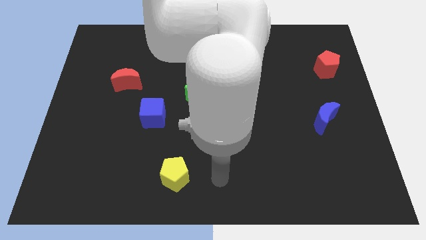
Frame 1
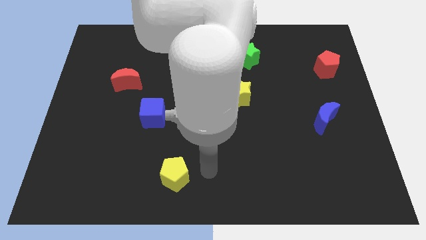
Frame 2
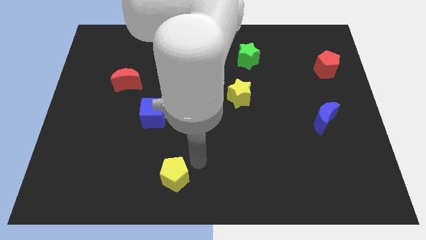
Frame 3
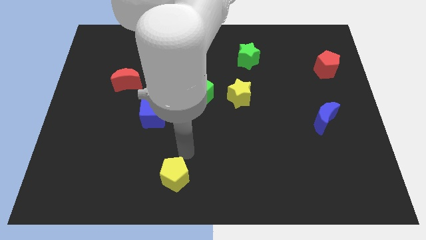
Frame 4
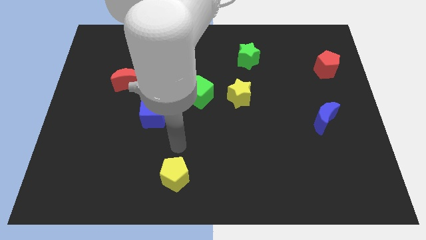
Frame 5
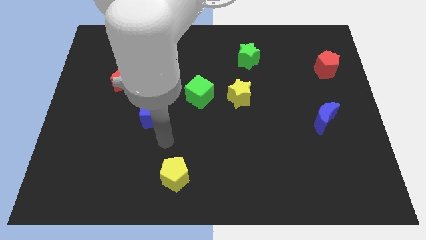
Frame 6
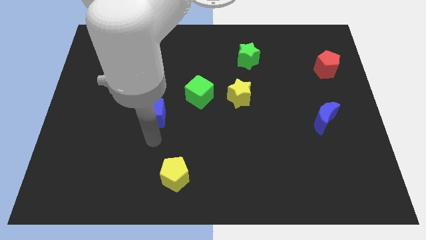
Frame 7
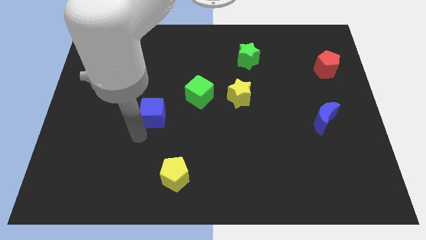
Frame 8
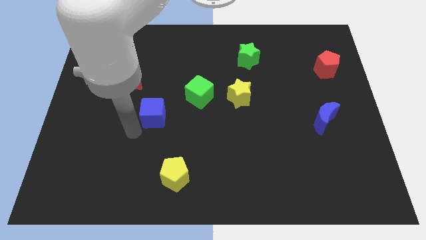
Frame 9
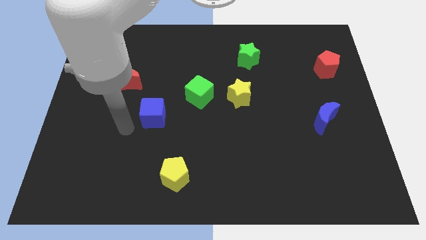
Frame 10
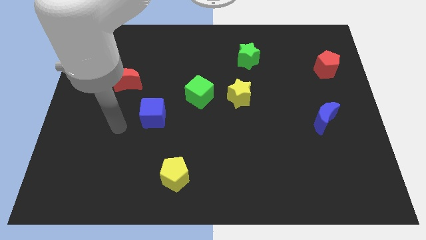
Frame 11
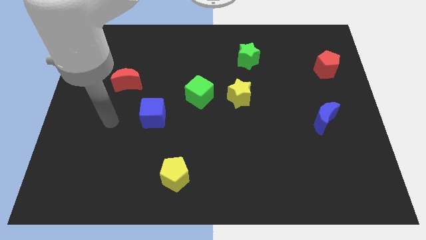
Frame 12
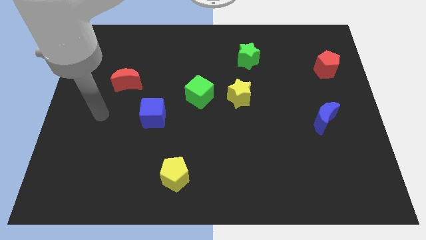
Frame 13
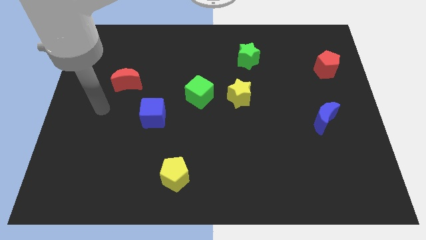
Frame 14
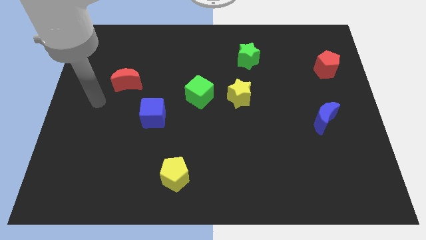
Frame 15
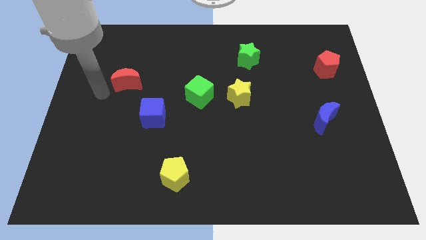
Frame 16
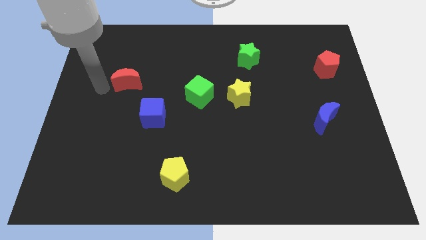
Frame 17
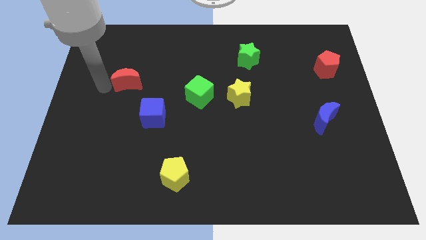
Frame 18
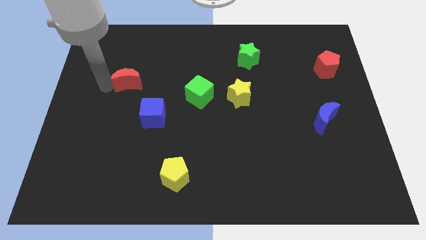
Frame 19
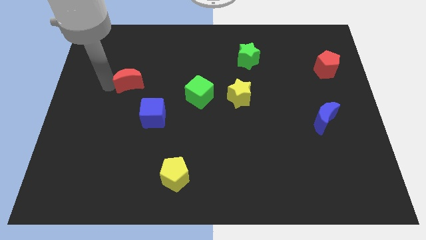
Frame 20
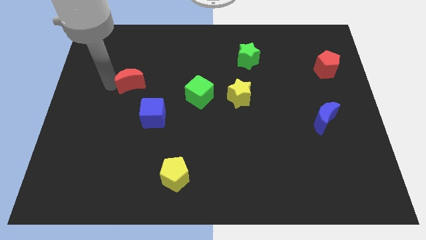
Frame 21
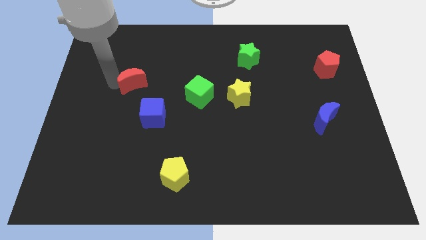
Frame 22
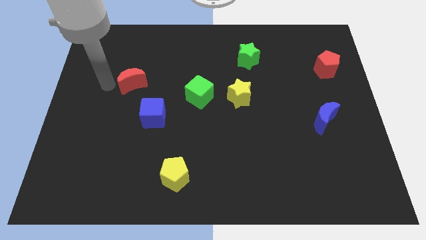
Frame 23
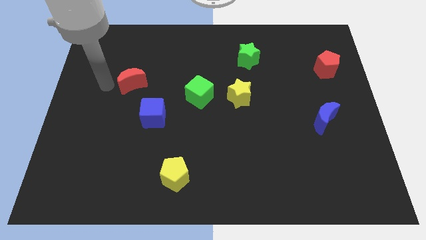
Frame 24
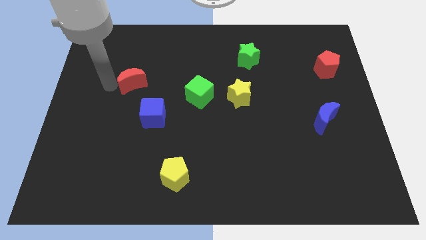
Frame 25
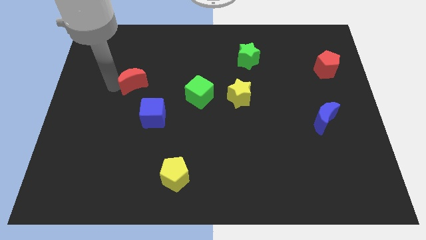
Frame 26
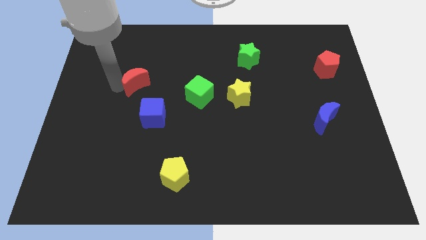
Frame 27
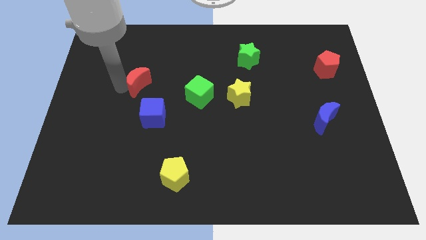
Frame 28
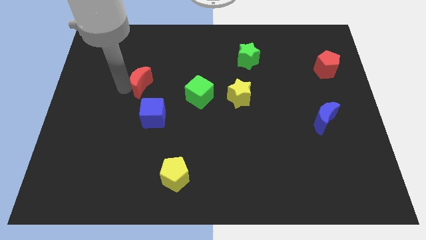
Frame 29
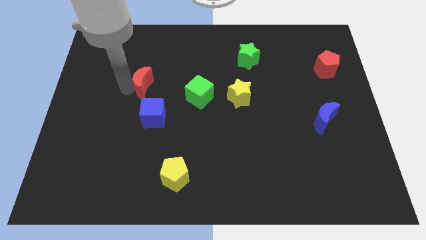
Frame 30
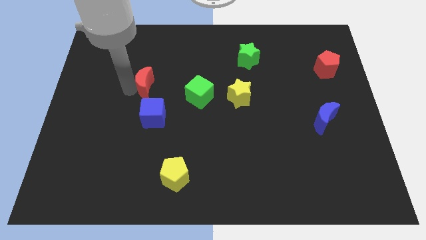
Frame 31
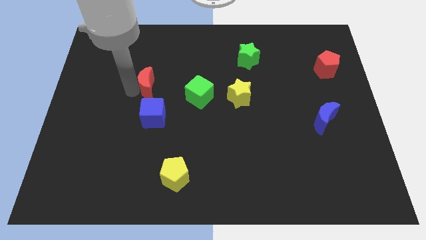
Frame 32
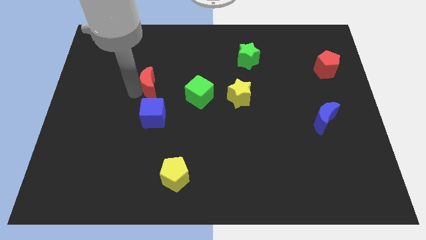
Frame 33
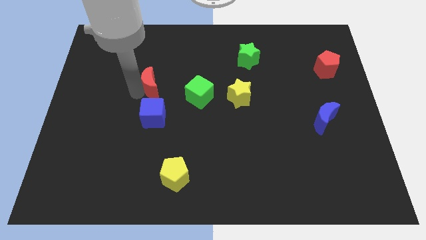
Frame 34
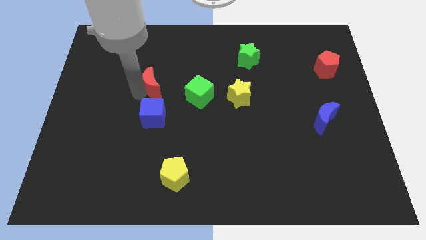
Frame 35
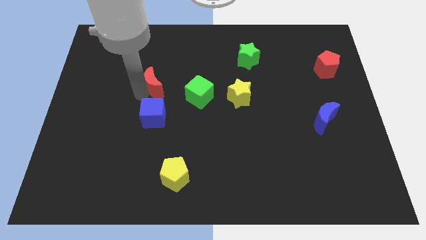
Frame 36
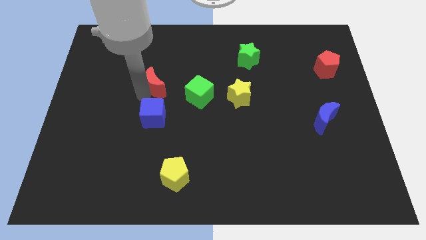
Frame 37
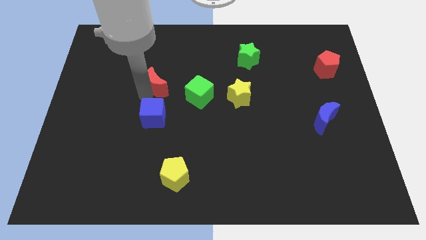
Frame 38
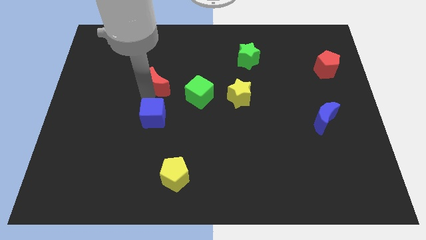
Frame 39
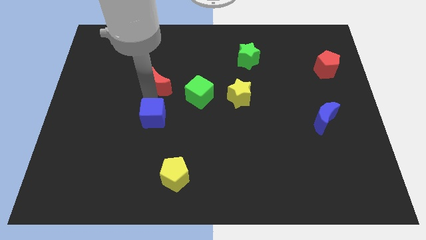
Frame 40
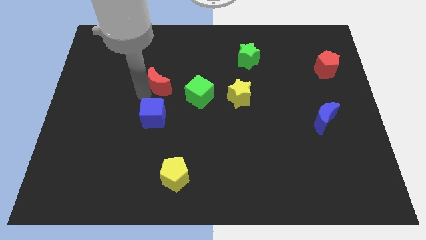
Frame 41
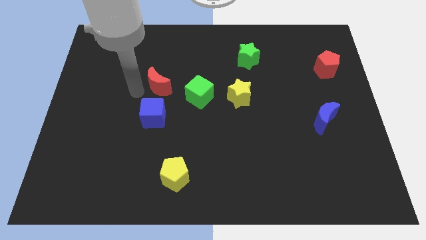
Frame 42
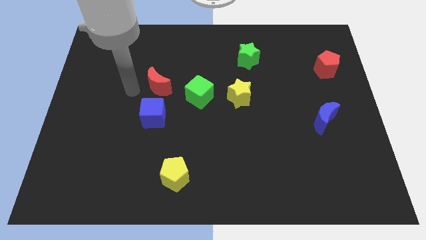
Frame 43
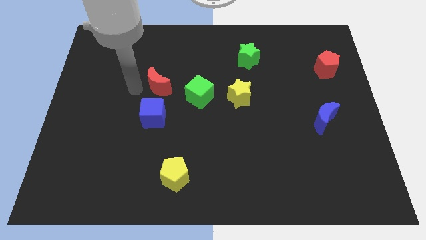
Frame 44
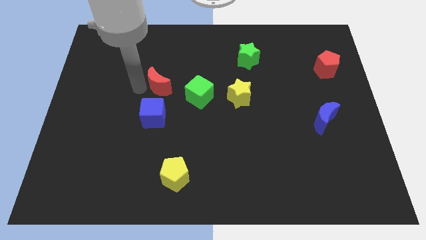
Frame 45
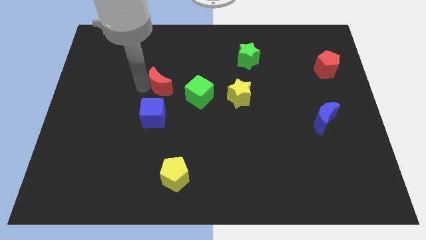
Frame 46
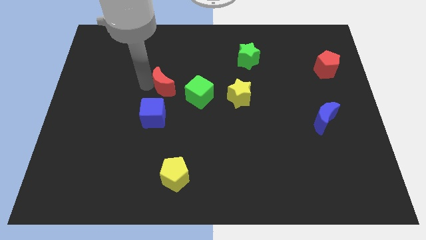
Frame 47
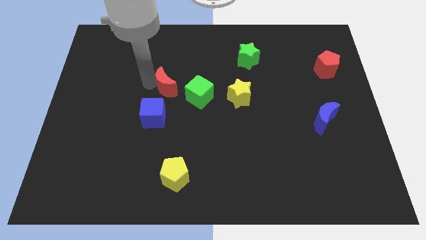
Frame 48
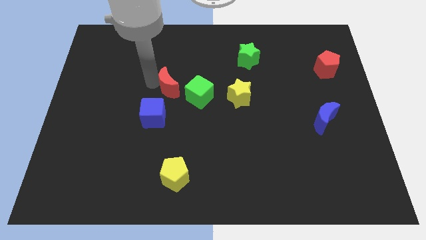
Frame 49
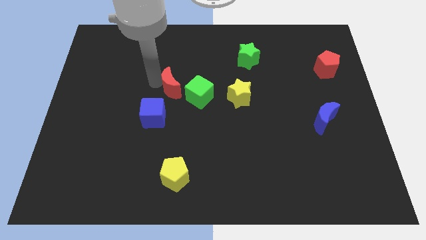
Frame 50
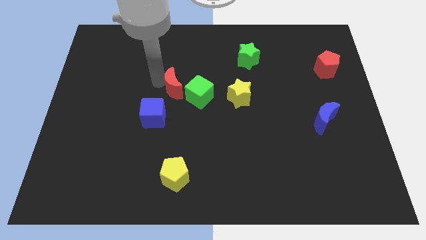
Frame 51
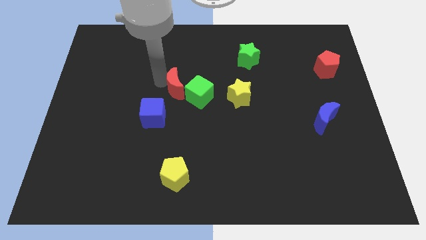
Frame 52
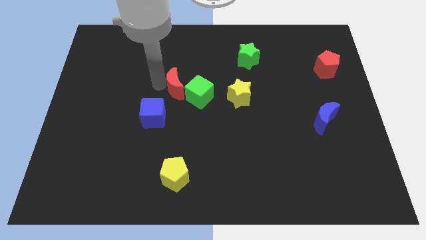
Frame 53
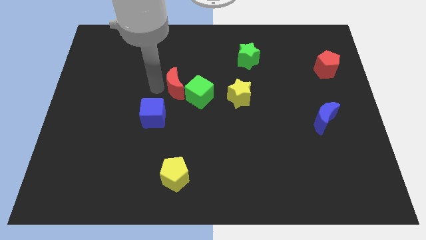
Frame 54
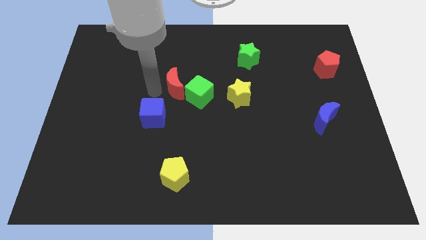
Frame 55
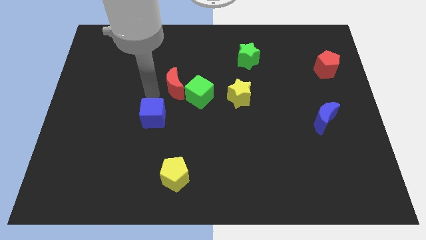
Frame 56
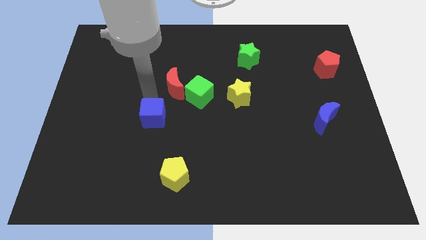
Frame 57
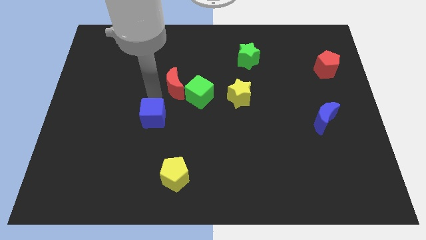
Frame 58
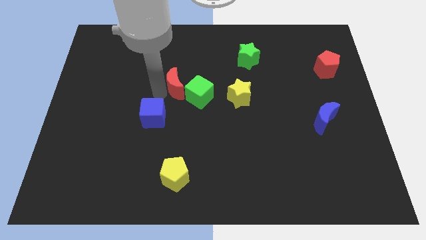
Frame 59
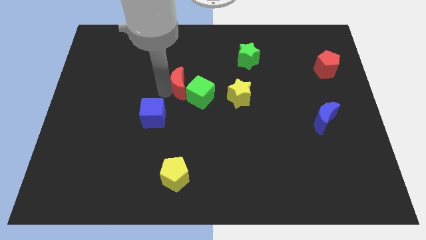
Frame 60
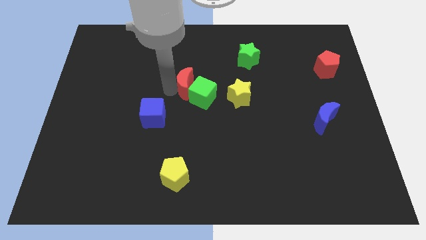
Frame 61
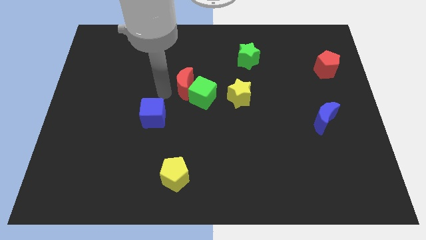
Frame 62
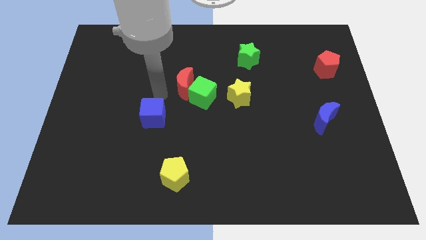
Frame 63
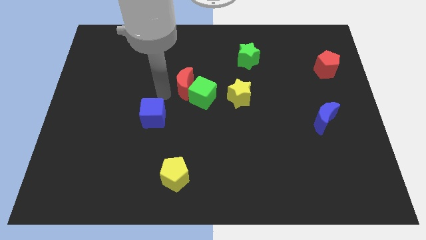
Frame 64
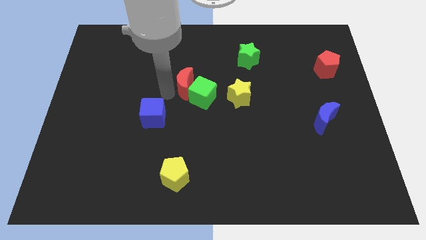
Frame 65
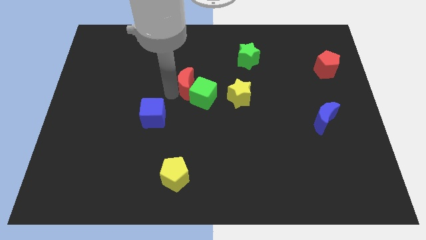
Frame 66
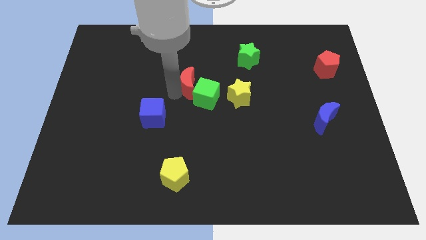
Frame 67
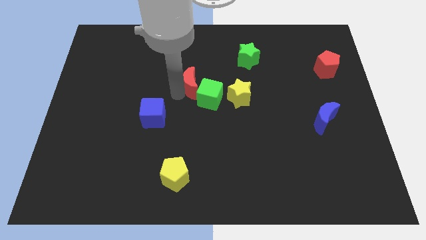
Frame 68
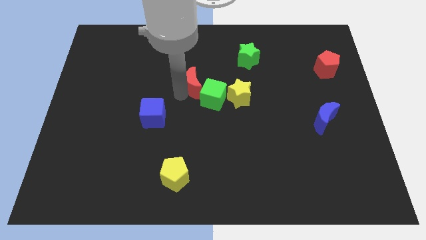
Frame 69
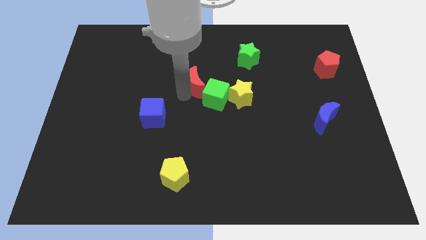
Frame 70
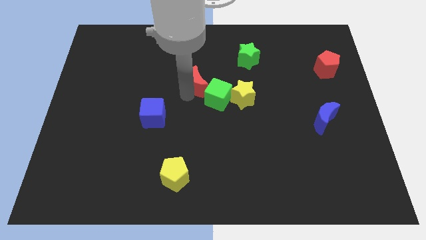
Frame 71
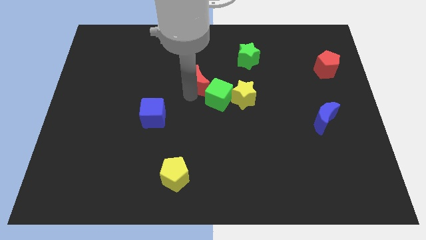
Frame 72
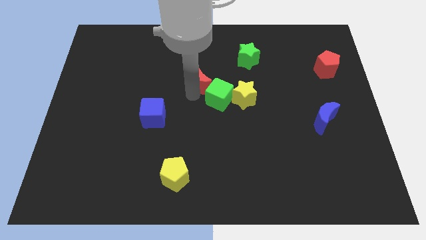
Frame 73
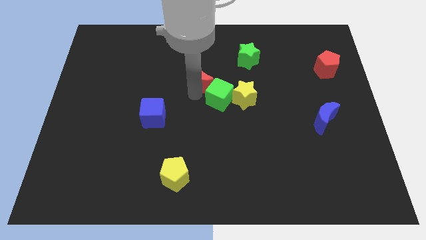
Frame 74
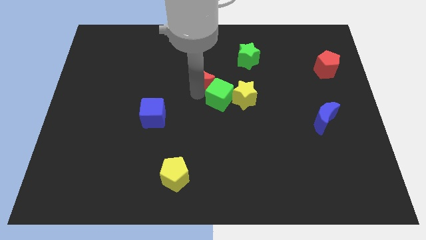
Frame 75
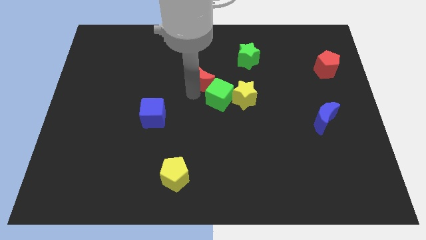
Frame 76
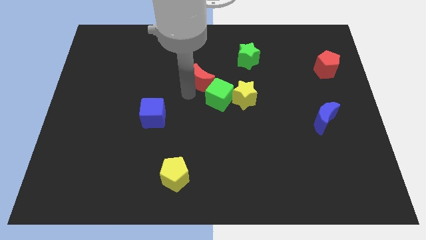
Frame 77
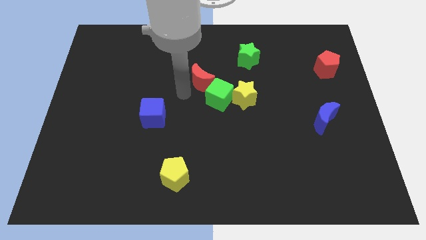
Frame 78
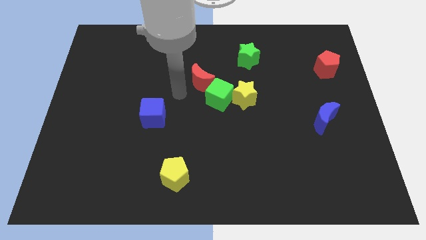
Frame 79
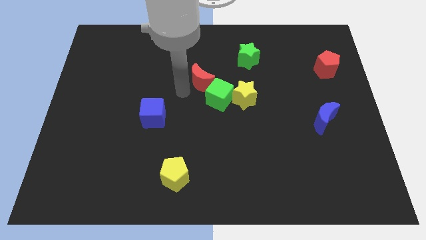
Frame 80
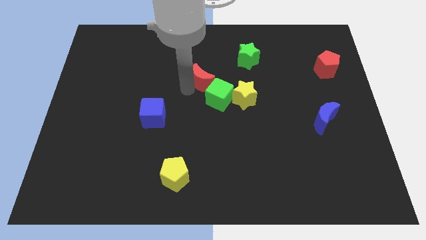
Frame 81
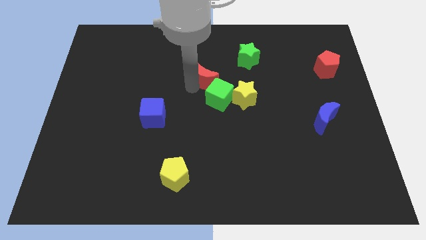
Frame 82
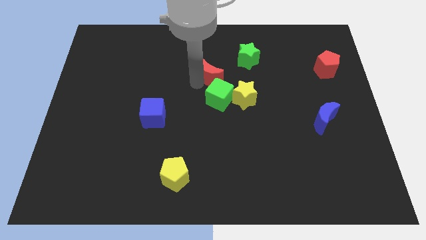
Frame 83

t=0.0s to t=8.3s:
move the red moon right
